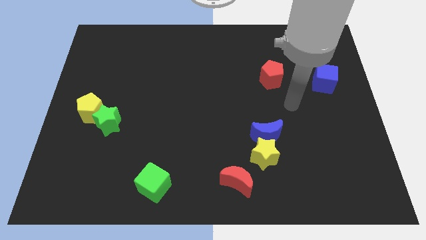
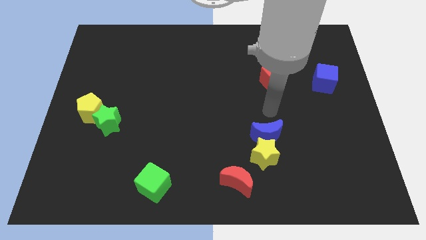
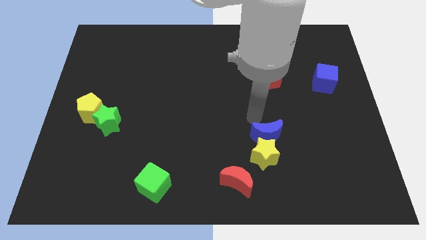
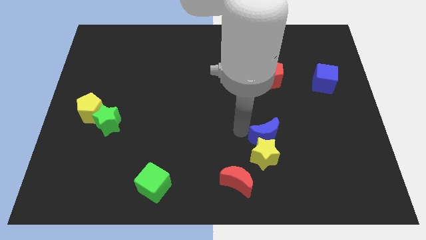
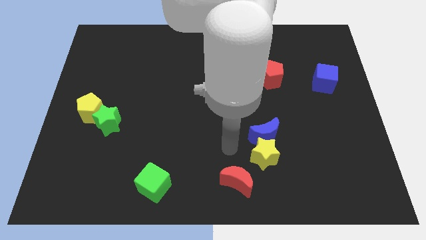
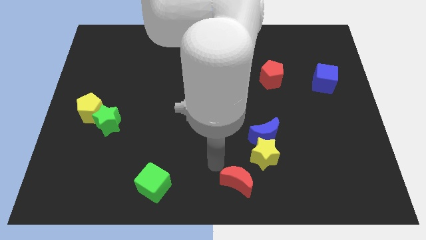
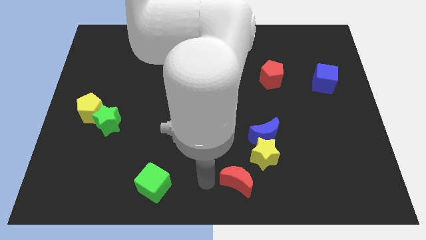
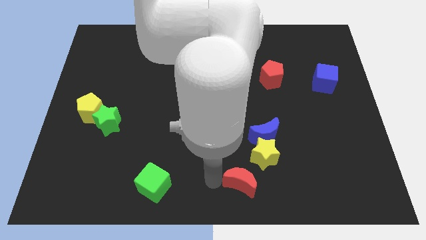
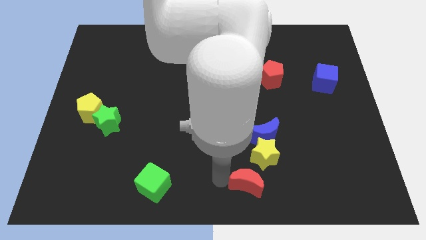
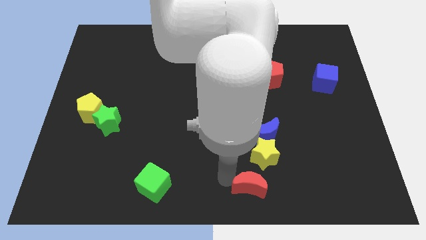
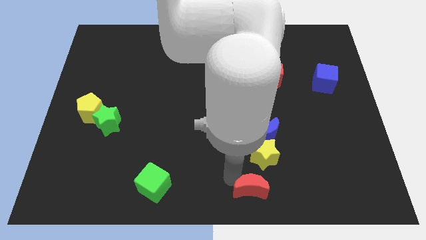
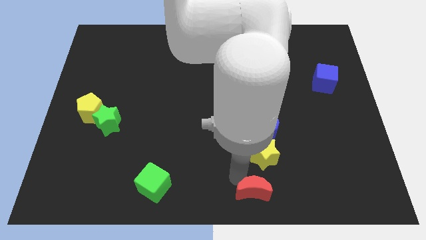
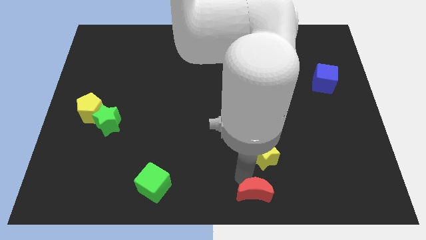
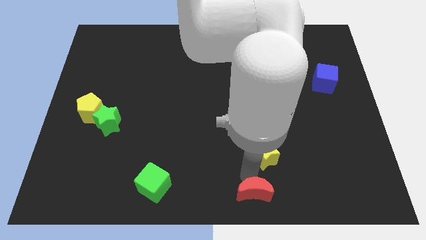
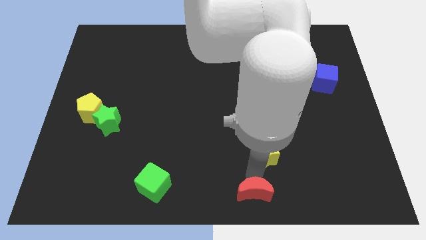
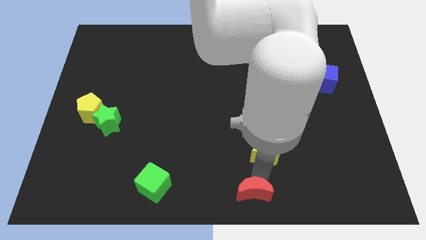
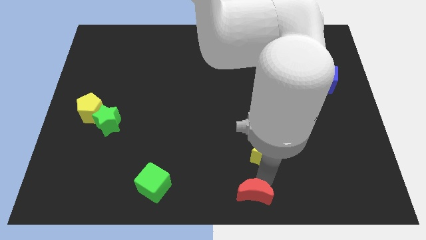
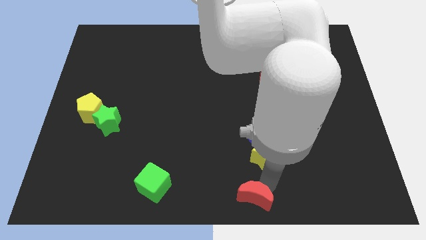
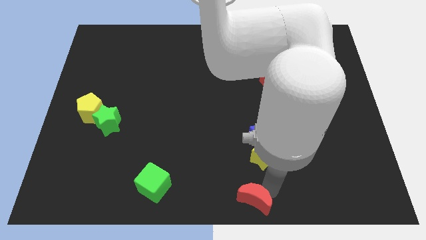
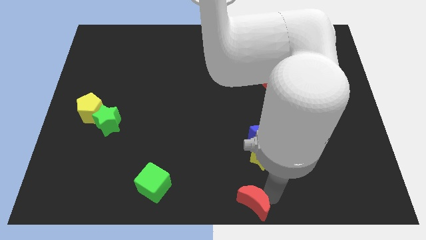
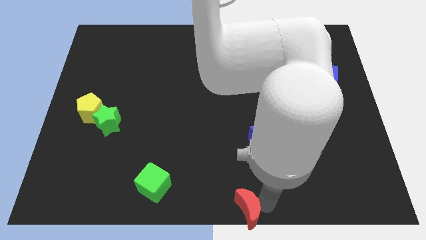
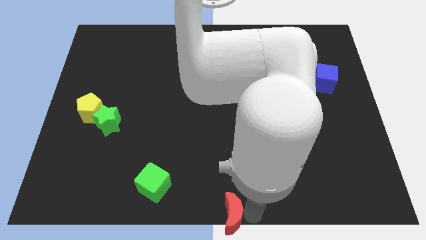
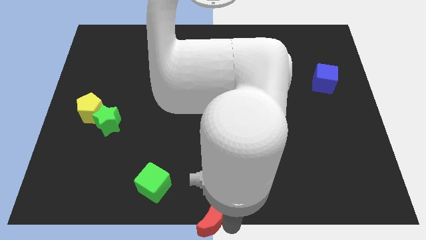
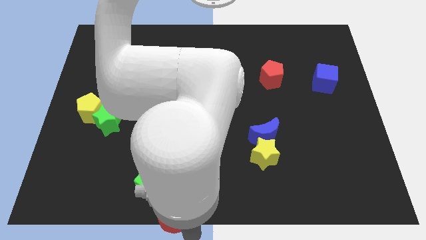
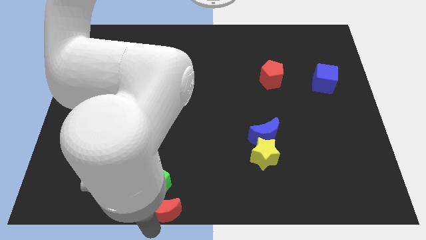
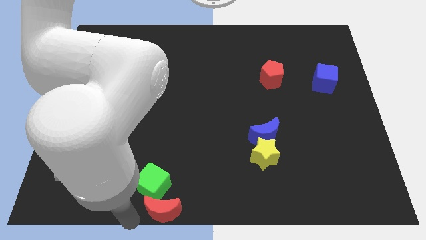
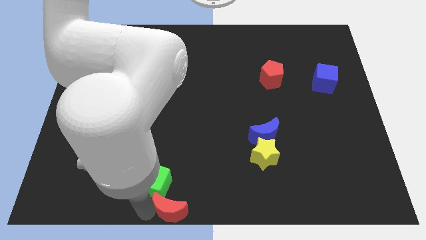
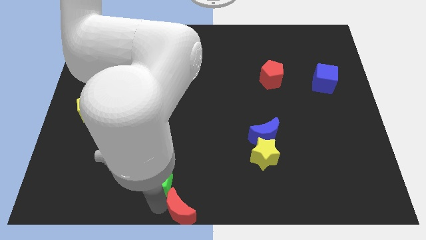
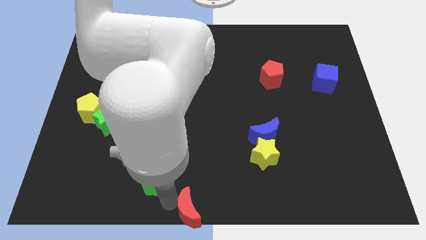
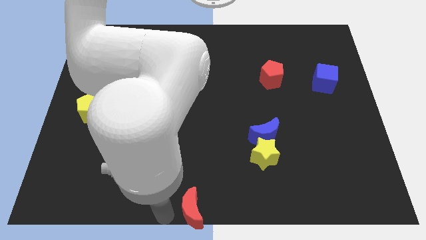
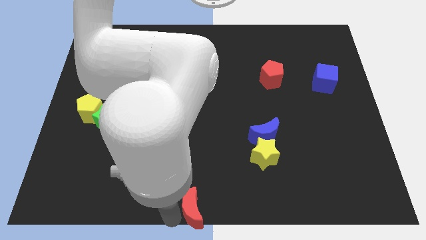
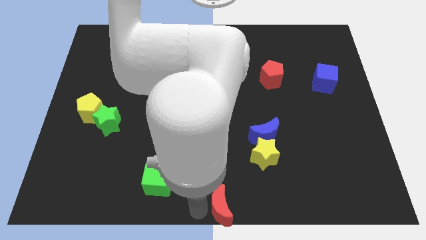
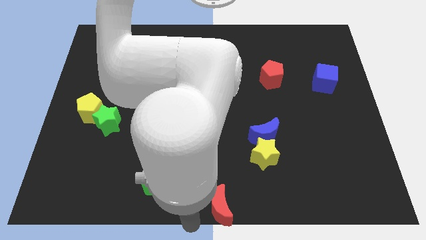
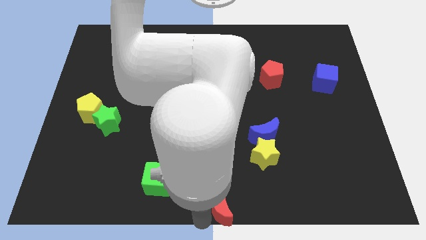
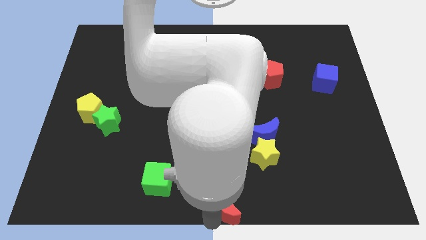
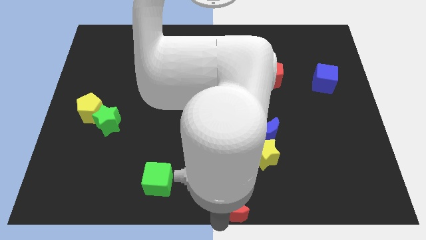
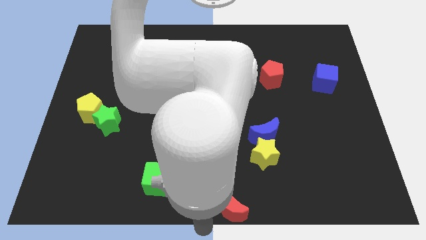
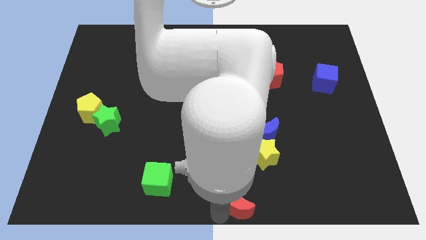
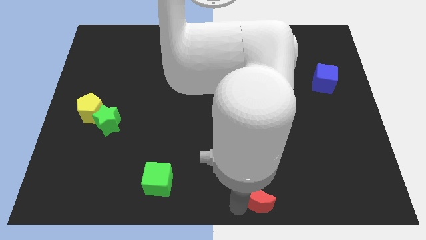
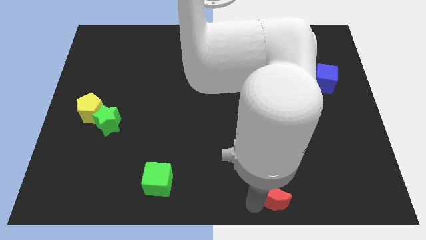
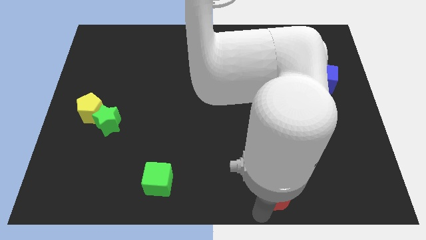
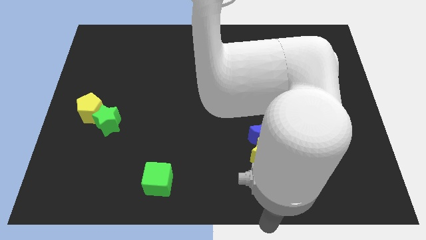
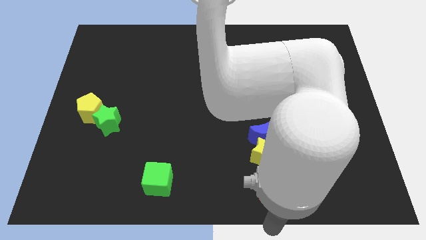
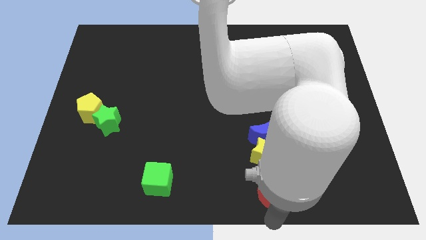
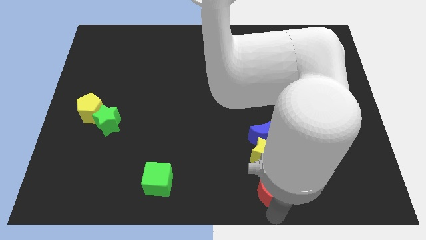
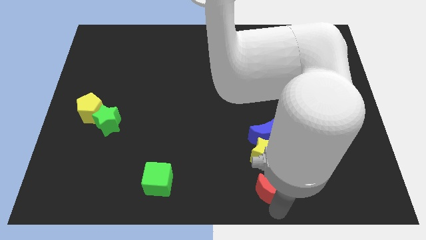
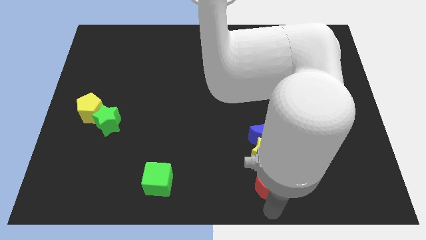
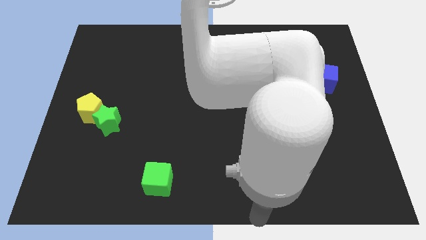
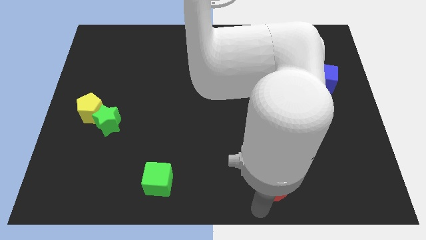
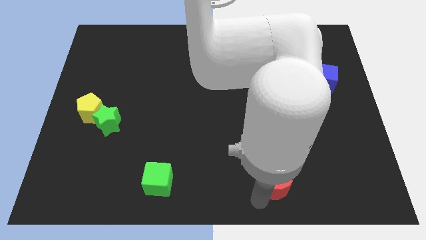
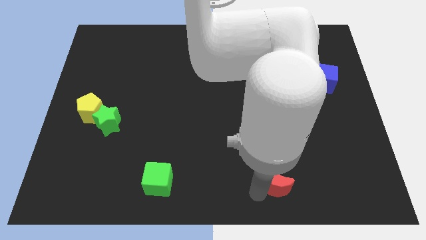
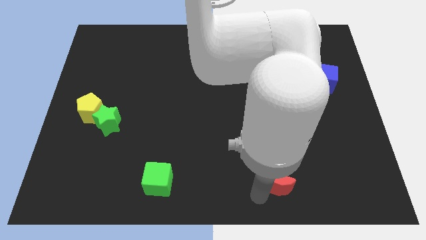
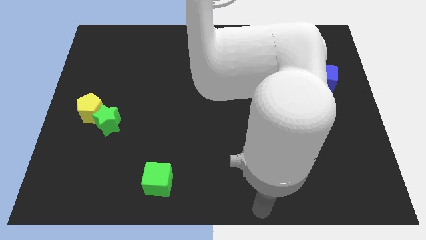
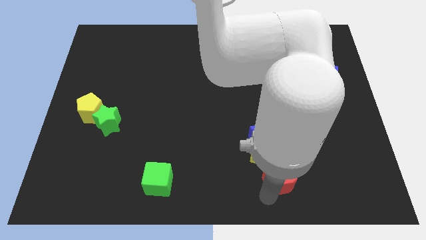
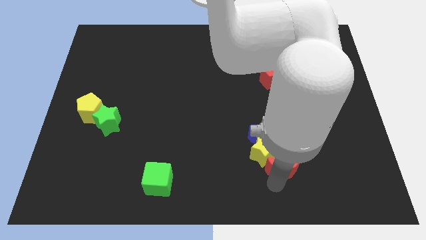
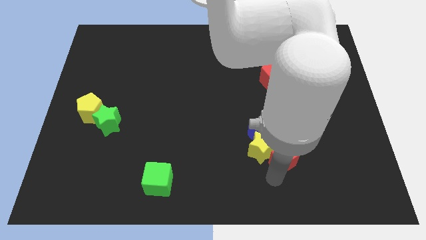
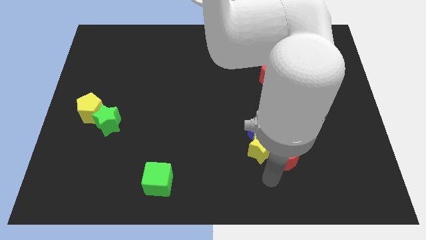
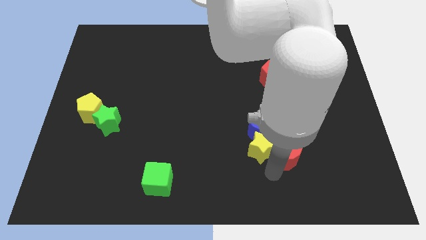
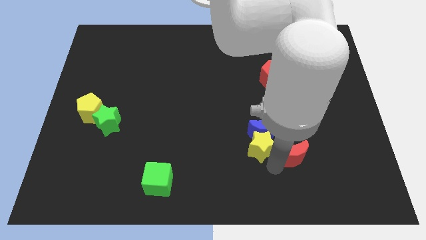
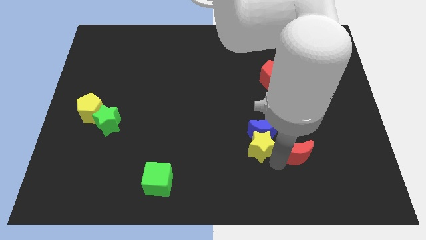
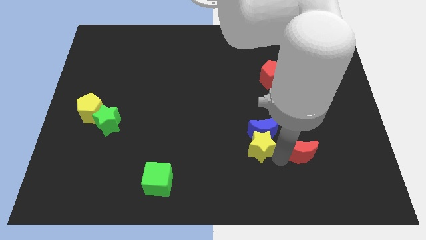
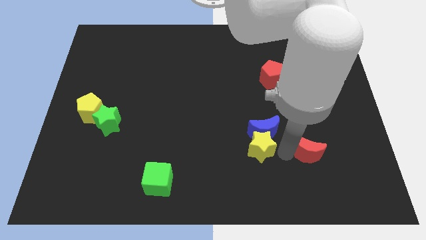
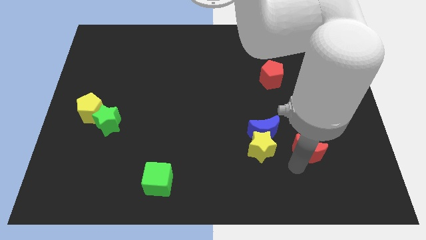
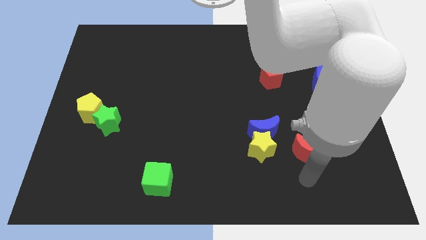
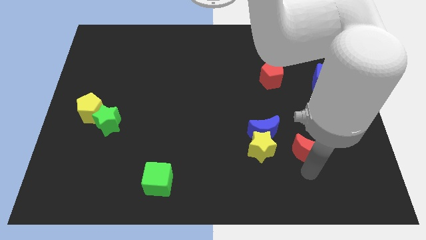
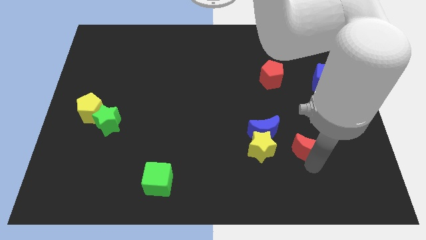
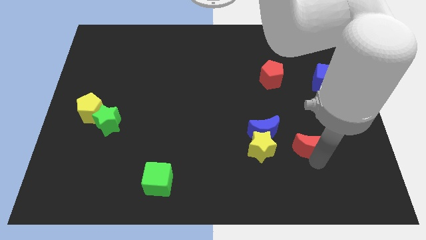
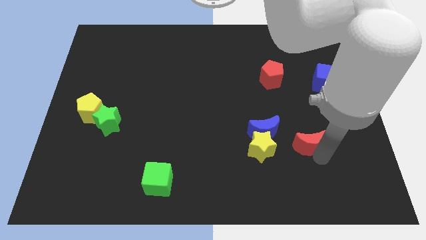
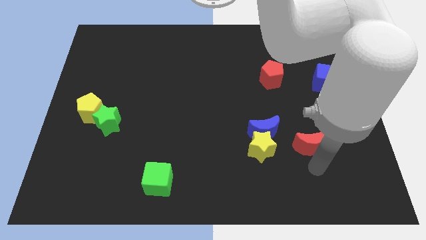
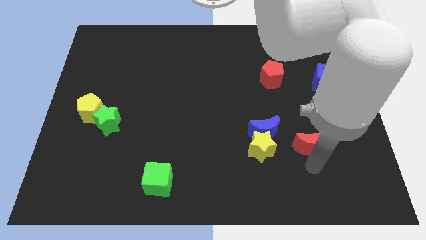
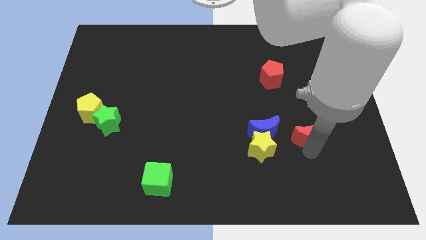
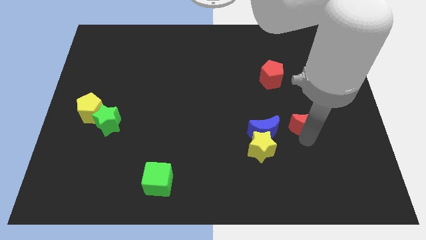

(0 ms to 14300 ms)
move the red moon upwards and then to the right

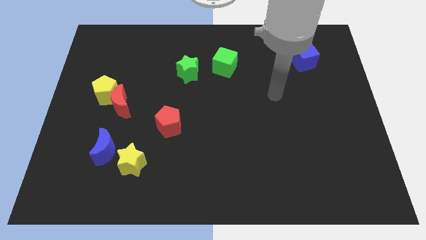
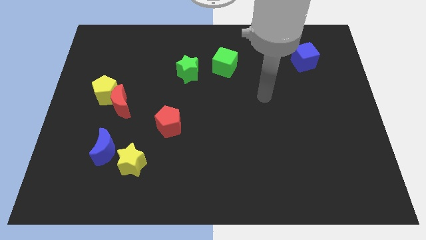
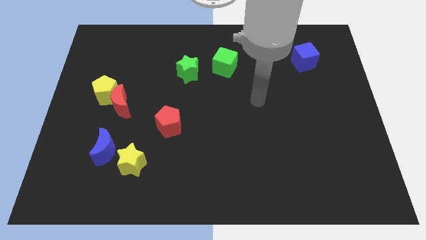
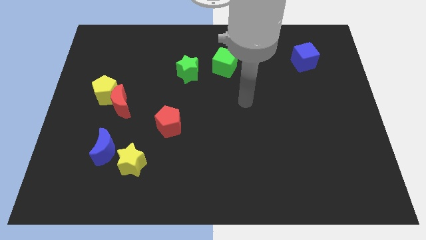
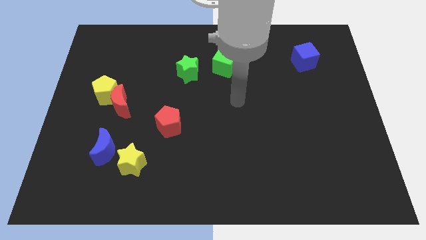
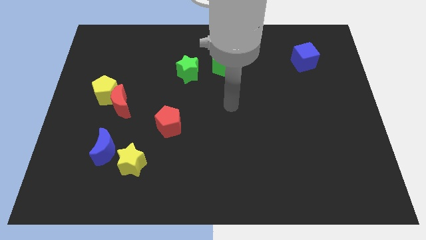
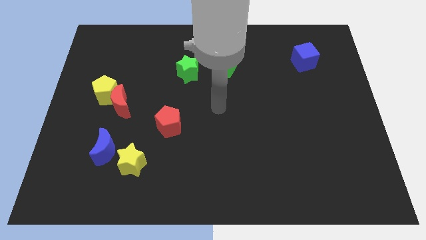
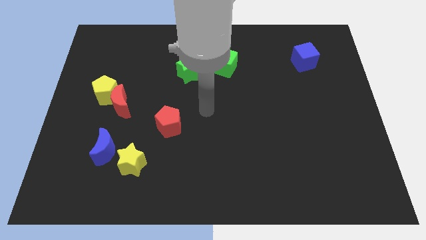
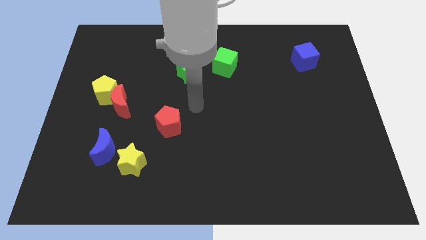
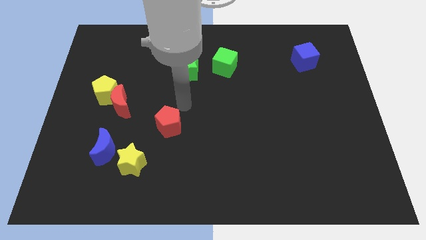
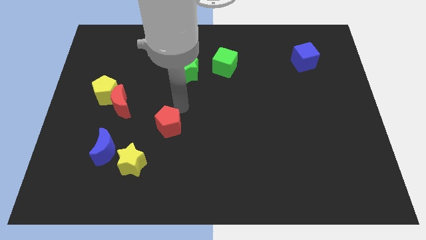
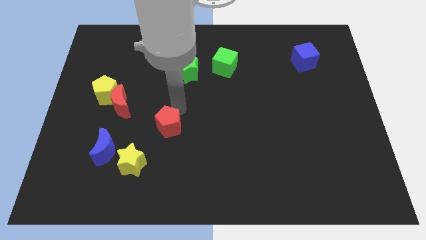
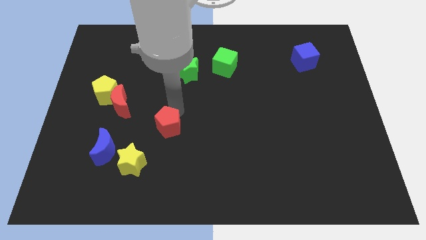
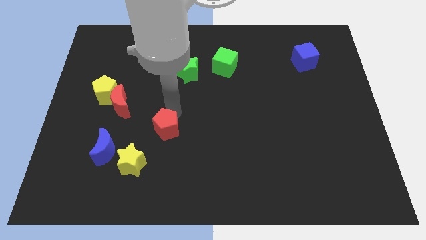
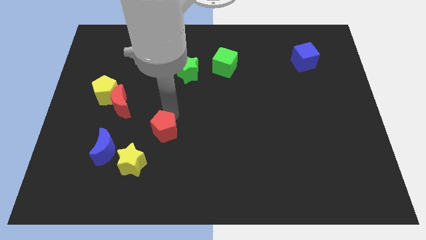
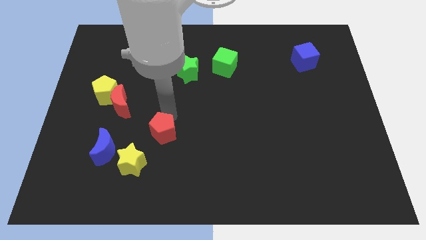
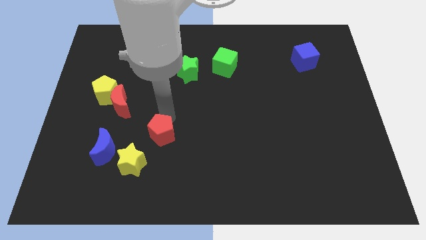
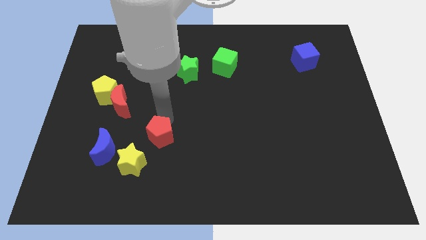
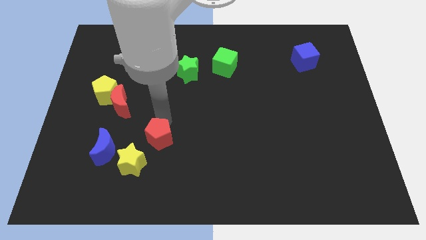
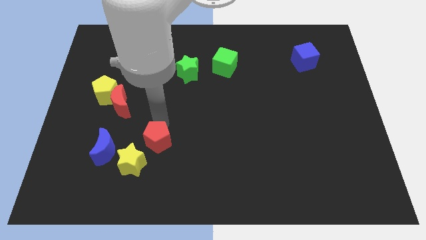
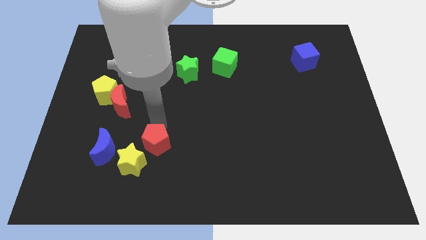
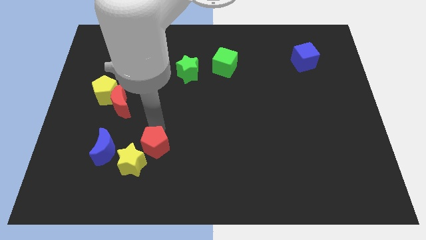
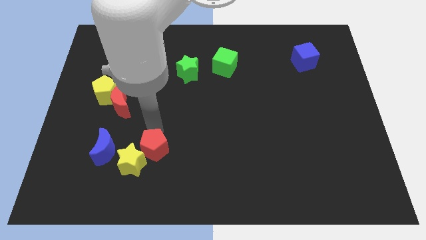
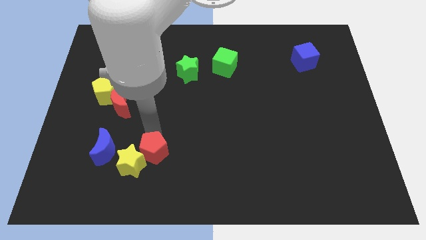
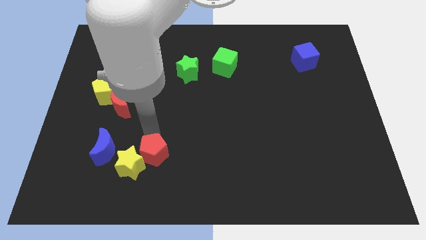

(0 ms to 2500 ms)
slightly move the red pentagon downwards and left diagonally
